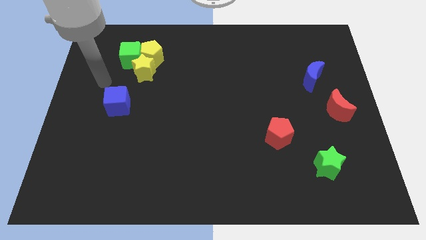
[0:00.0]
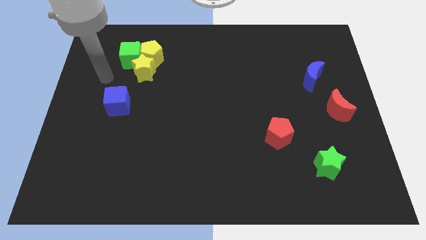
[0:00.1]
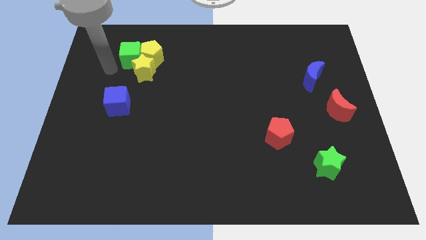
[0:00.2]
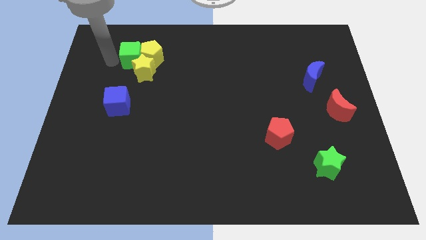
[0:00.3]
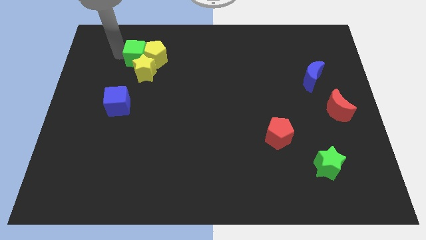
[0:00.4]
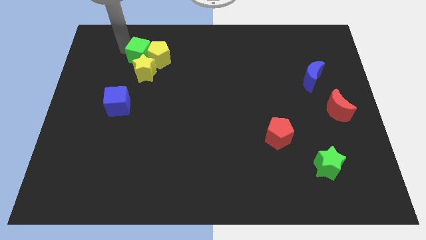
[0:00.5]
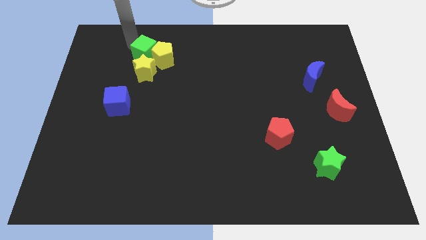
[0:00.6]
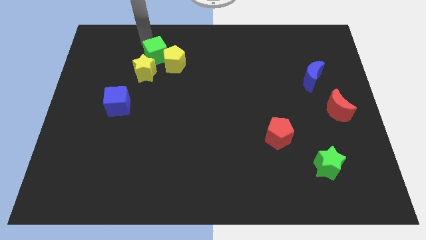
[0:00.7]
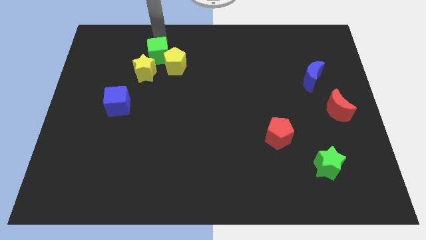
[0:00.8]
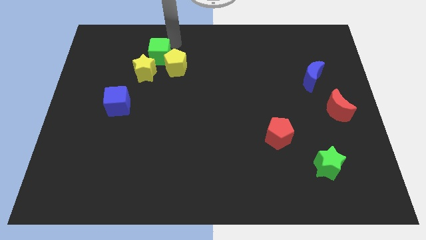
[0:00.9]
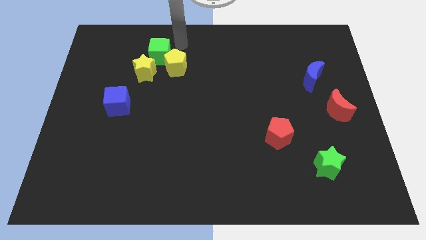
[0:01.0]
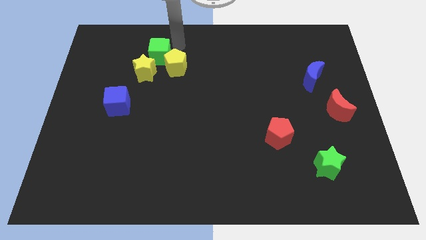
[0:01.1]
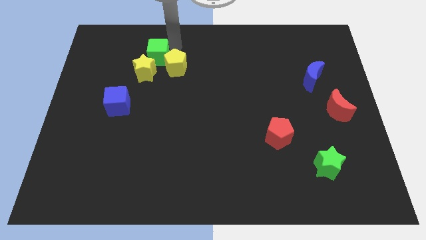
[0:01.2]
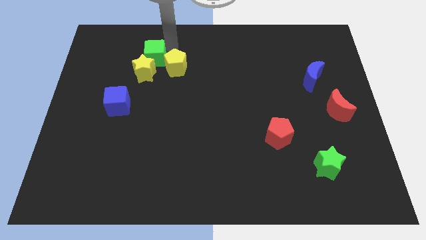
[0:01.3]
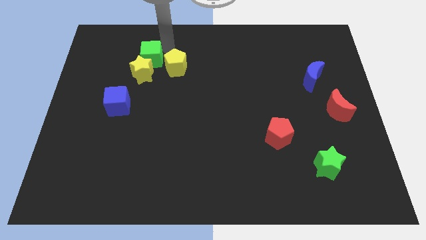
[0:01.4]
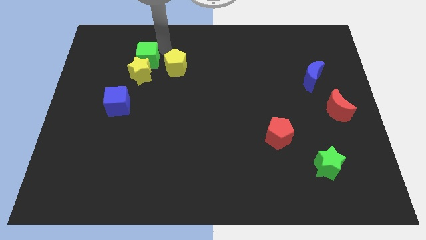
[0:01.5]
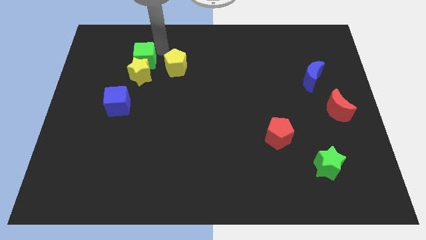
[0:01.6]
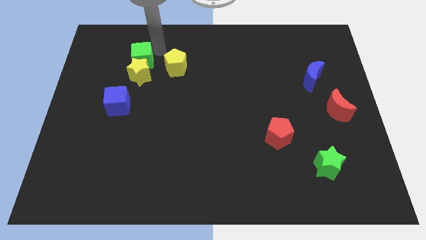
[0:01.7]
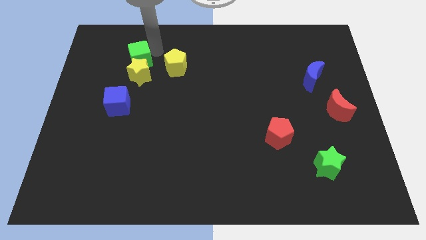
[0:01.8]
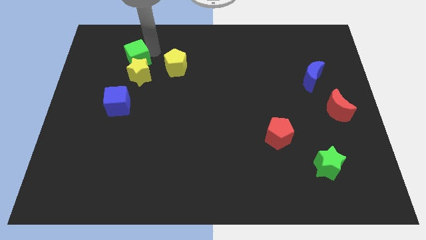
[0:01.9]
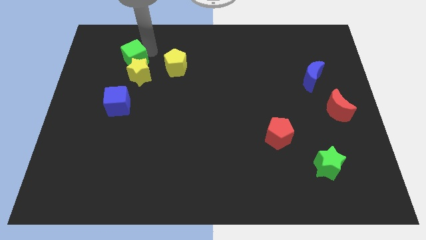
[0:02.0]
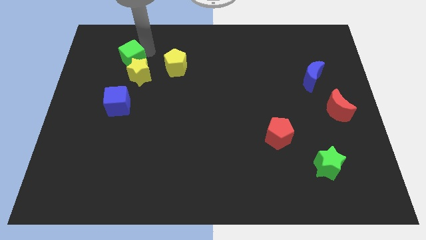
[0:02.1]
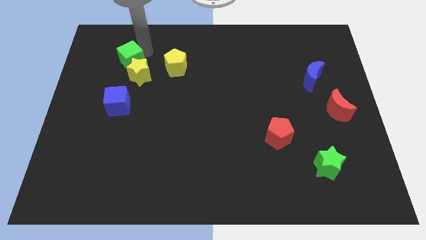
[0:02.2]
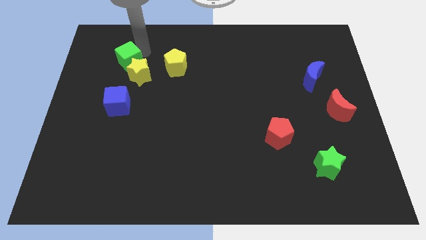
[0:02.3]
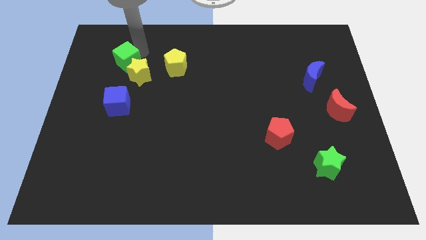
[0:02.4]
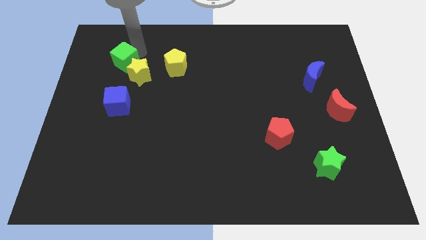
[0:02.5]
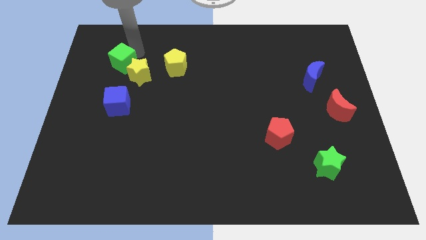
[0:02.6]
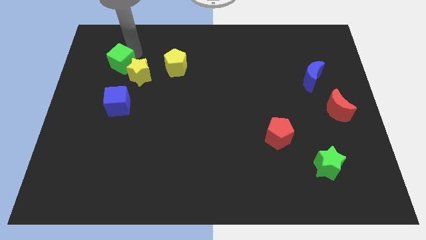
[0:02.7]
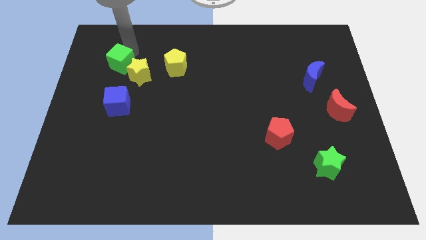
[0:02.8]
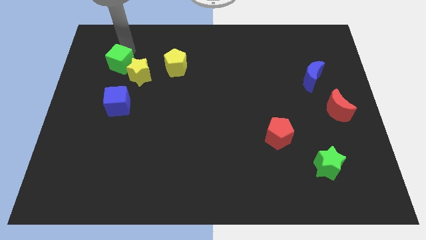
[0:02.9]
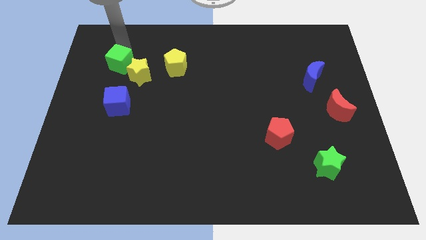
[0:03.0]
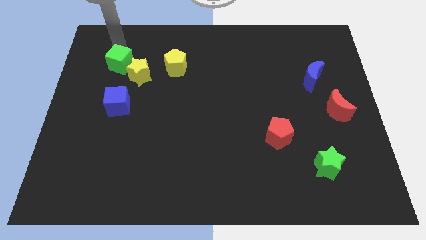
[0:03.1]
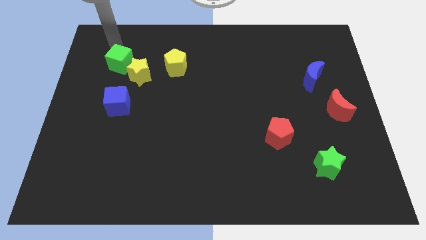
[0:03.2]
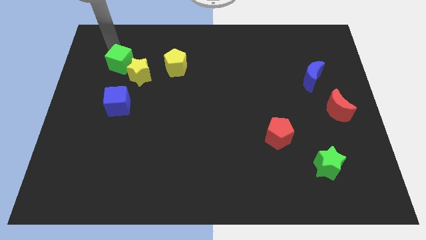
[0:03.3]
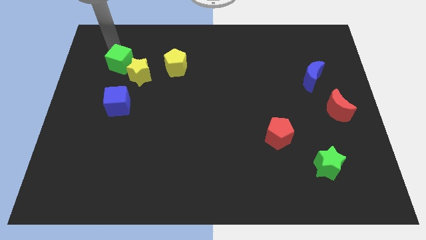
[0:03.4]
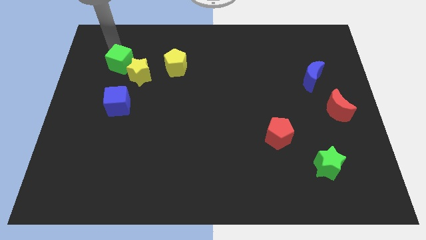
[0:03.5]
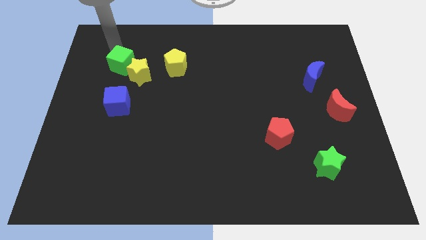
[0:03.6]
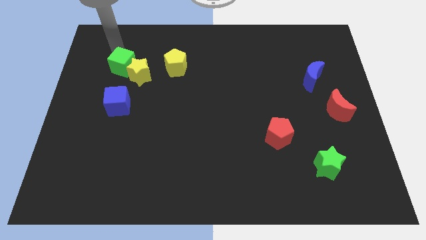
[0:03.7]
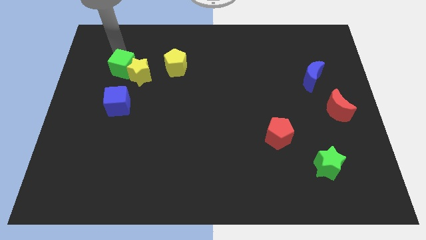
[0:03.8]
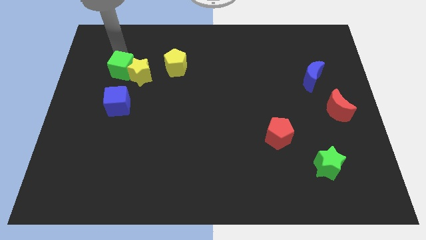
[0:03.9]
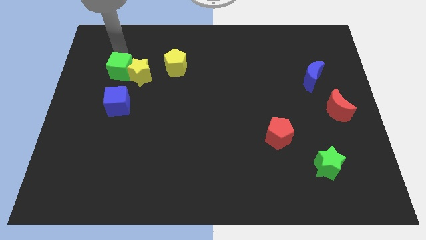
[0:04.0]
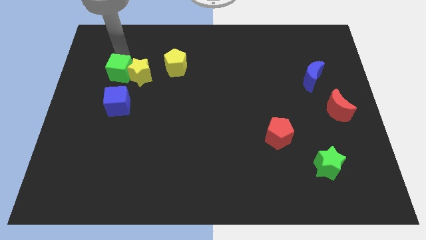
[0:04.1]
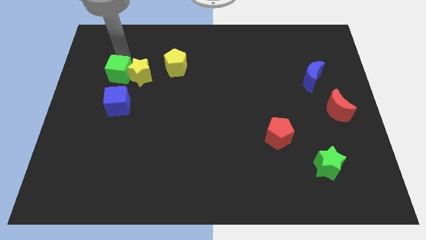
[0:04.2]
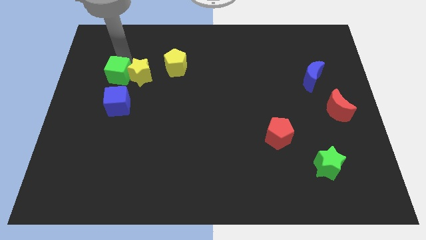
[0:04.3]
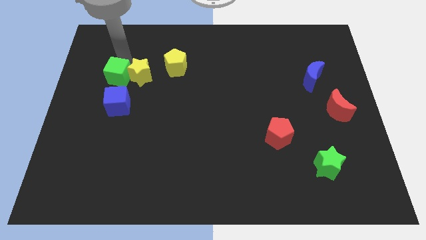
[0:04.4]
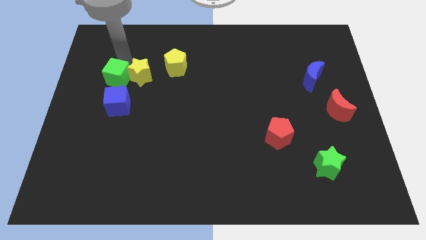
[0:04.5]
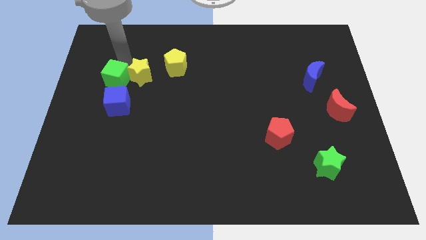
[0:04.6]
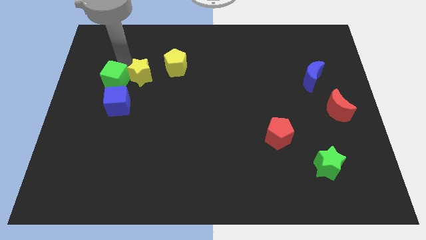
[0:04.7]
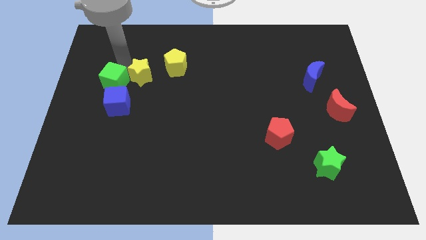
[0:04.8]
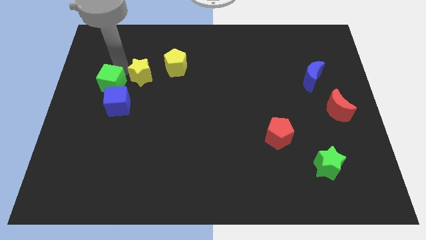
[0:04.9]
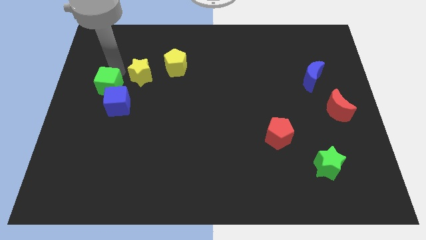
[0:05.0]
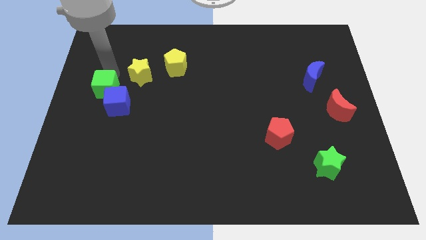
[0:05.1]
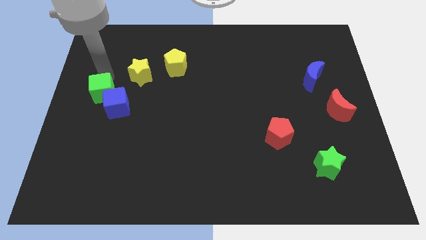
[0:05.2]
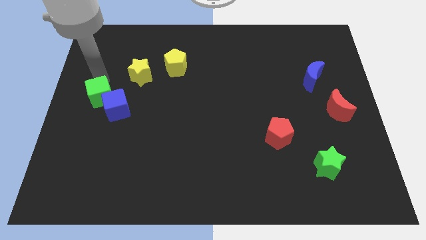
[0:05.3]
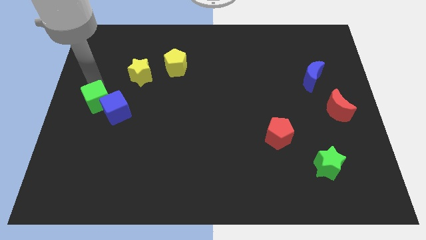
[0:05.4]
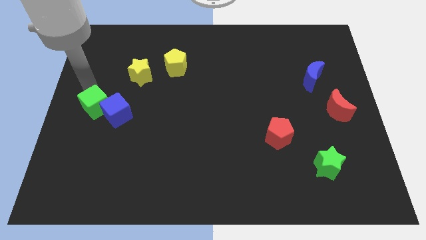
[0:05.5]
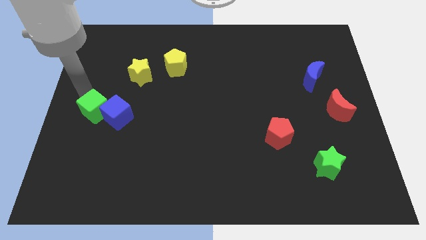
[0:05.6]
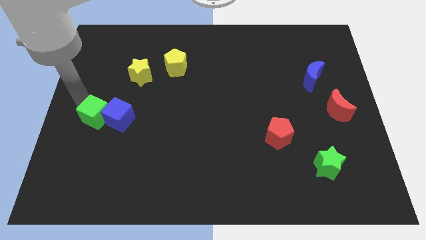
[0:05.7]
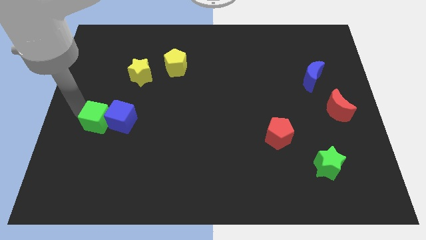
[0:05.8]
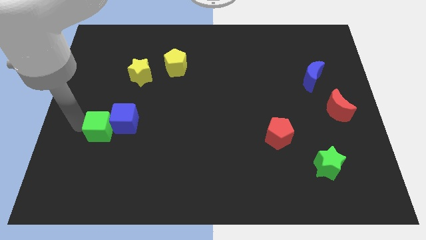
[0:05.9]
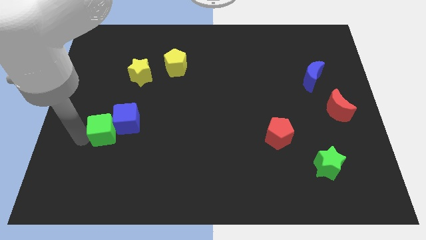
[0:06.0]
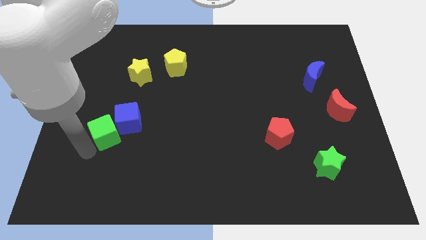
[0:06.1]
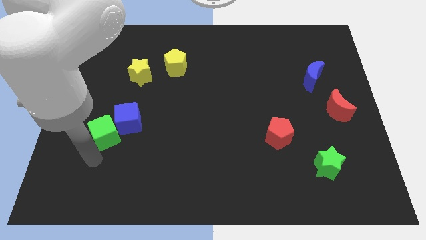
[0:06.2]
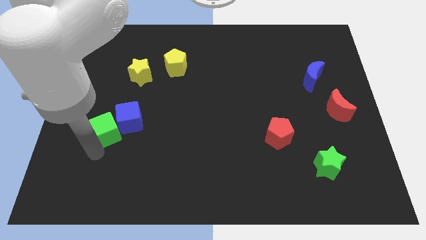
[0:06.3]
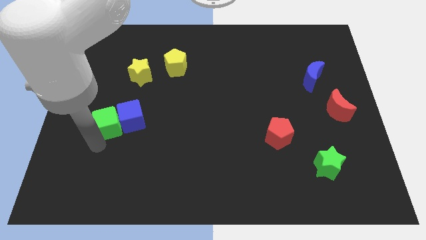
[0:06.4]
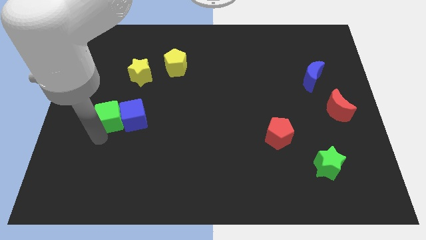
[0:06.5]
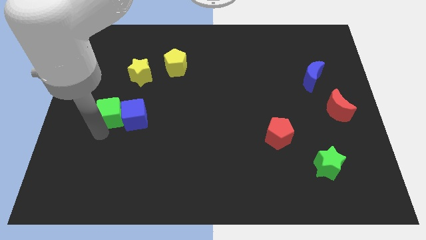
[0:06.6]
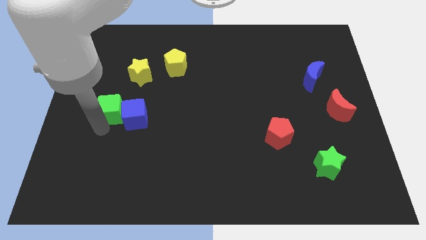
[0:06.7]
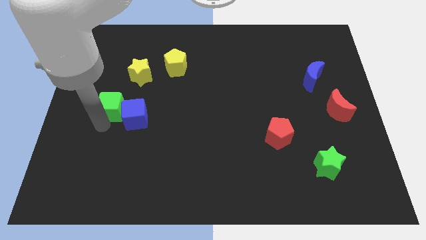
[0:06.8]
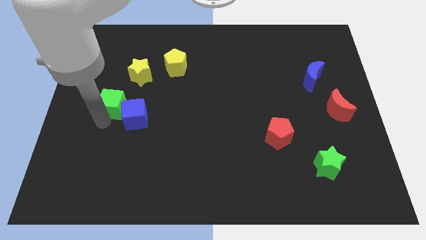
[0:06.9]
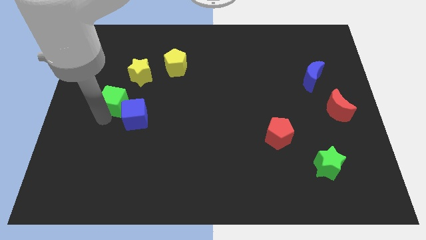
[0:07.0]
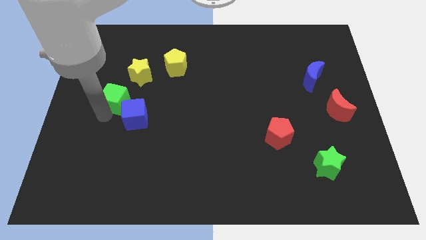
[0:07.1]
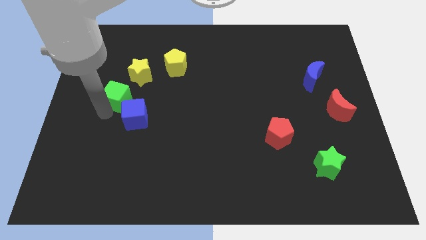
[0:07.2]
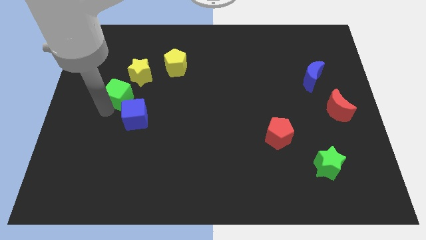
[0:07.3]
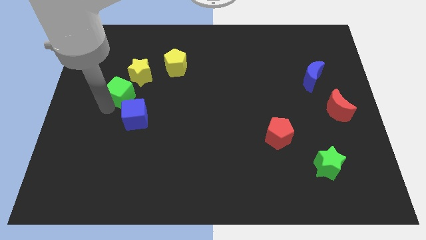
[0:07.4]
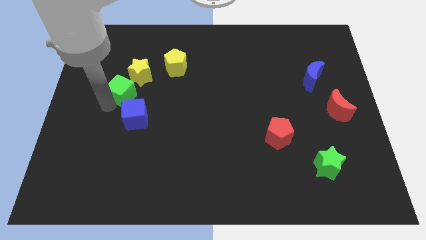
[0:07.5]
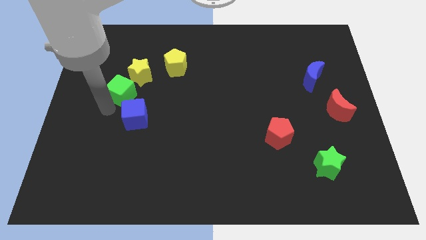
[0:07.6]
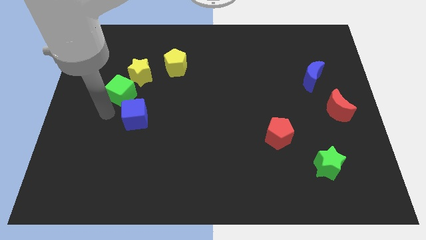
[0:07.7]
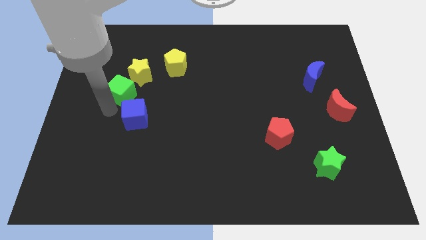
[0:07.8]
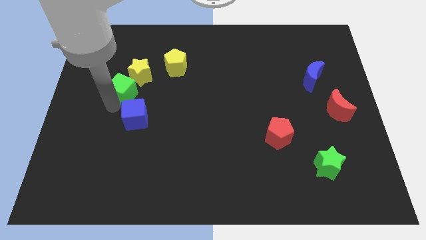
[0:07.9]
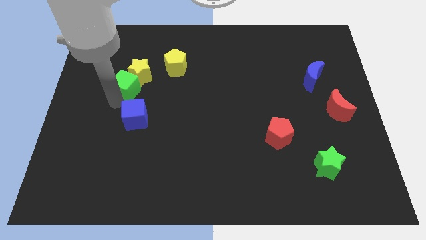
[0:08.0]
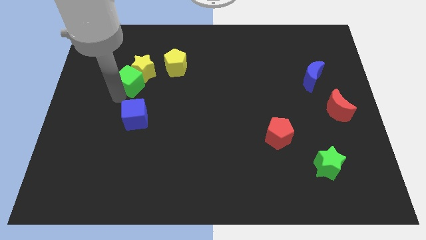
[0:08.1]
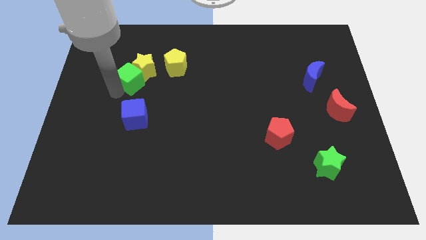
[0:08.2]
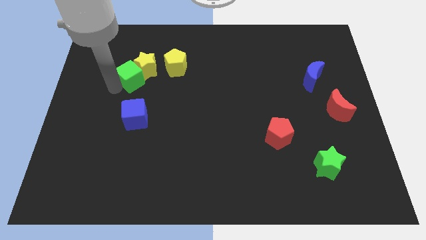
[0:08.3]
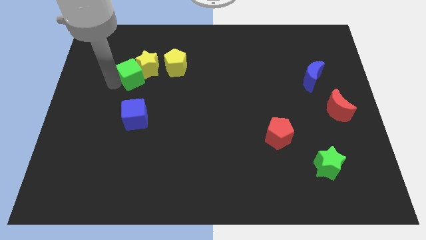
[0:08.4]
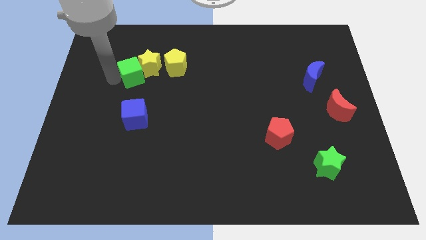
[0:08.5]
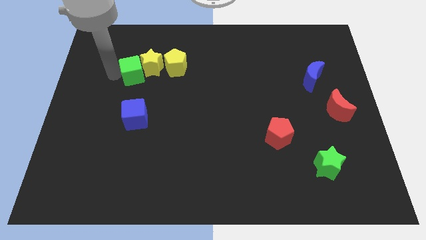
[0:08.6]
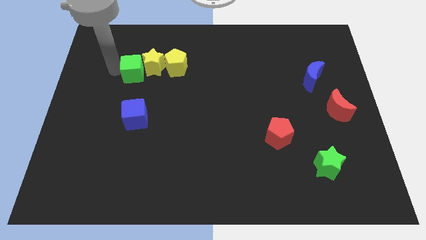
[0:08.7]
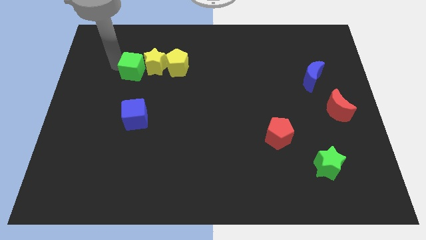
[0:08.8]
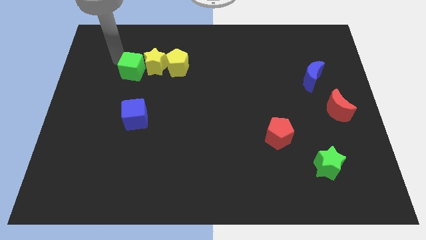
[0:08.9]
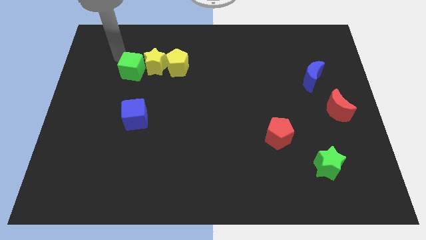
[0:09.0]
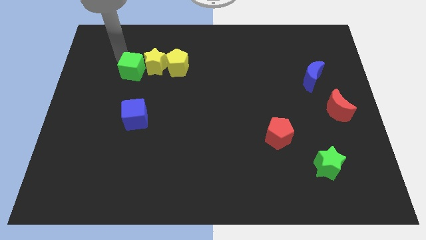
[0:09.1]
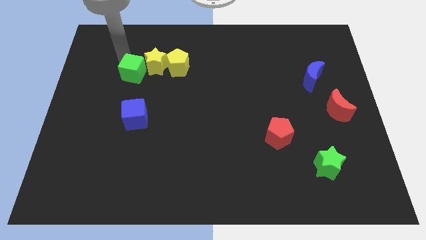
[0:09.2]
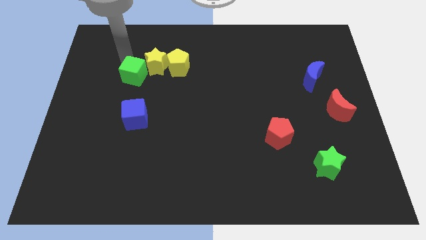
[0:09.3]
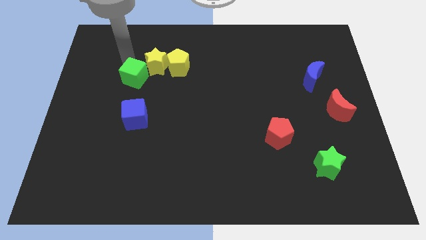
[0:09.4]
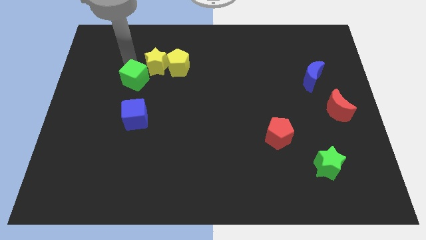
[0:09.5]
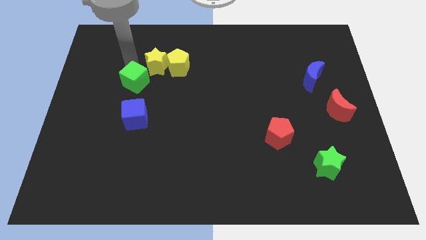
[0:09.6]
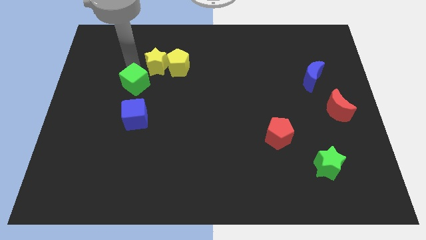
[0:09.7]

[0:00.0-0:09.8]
move the green cube somewhat downwards and right
